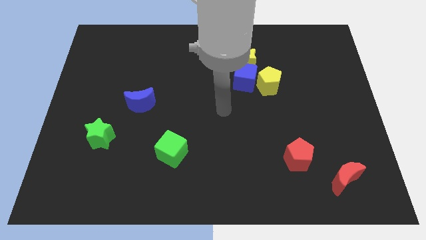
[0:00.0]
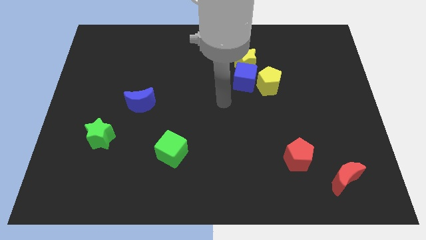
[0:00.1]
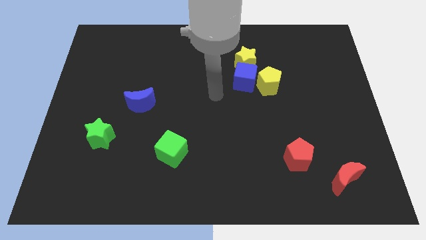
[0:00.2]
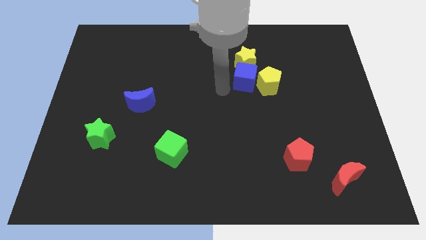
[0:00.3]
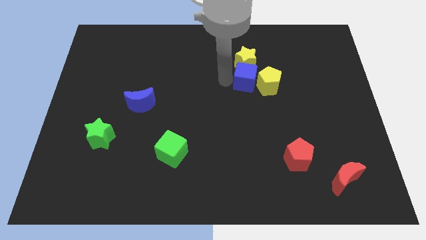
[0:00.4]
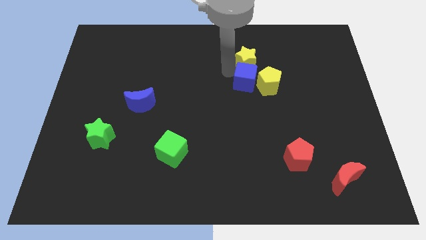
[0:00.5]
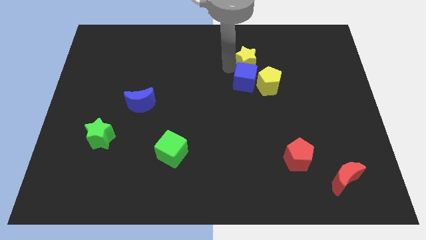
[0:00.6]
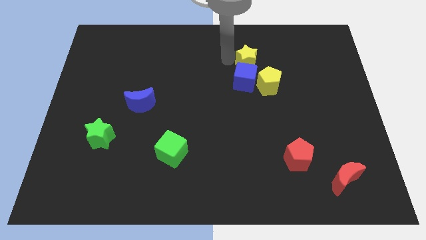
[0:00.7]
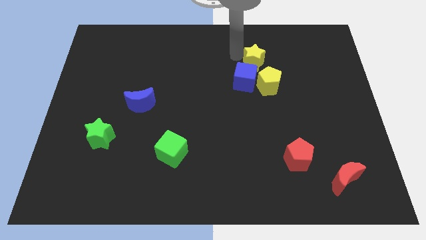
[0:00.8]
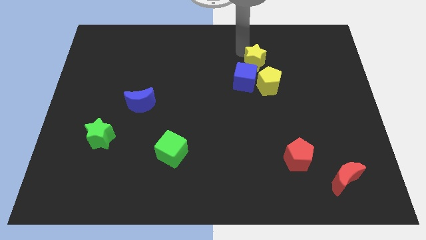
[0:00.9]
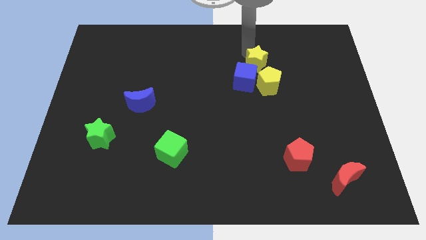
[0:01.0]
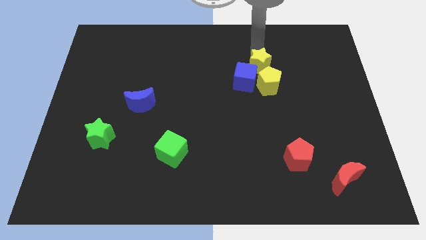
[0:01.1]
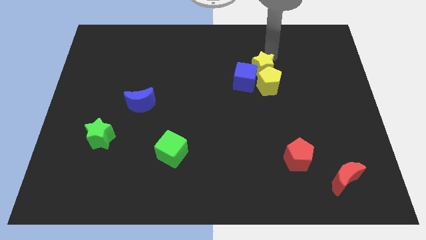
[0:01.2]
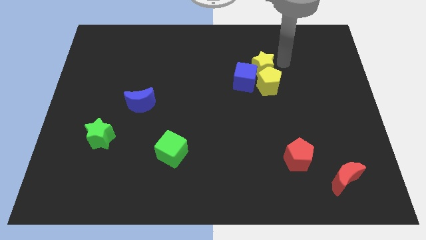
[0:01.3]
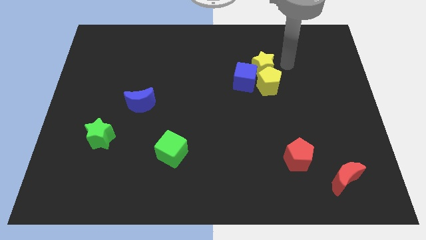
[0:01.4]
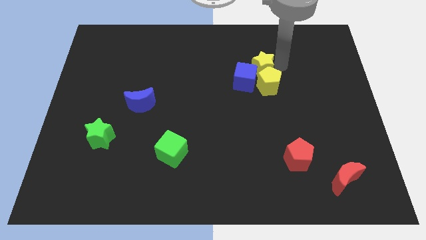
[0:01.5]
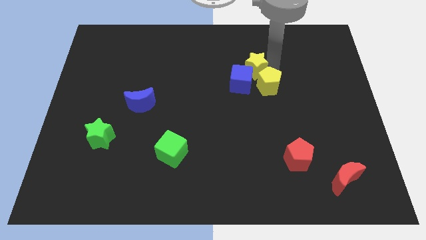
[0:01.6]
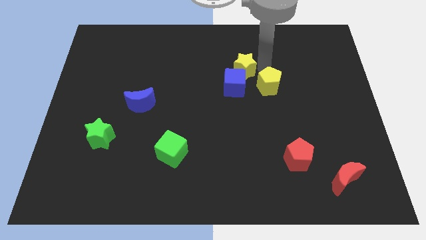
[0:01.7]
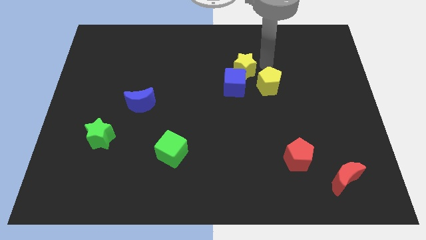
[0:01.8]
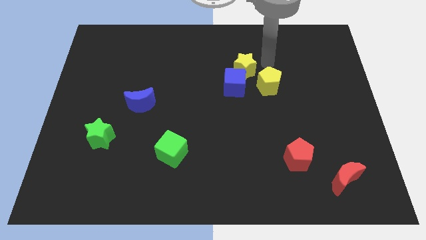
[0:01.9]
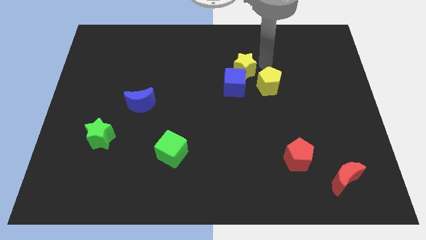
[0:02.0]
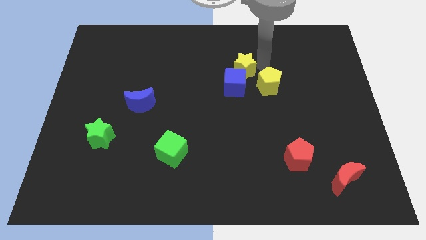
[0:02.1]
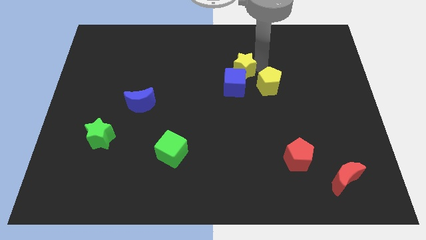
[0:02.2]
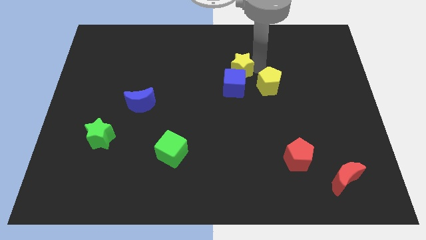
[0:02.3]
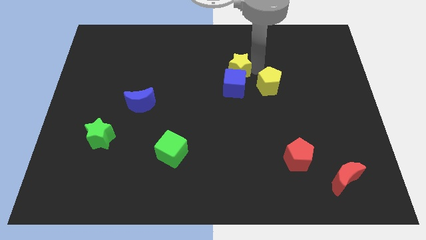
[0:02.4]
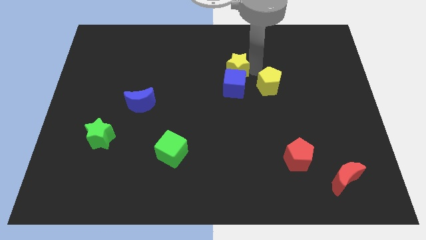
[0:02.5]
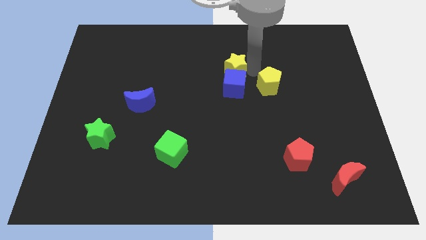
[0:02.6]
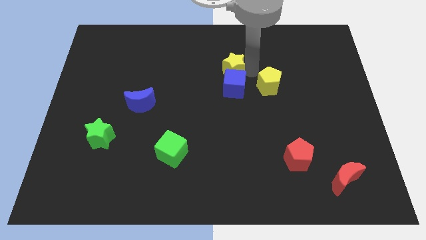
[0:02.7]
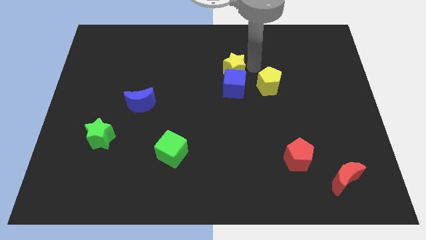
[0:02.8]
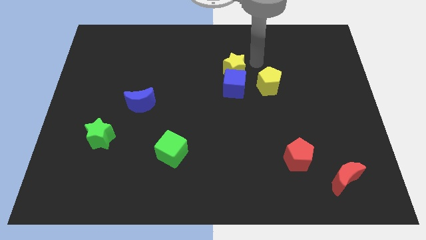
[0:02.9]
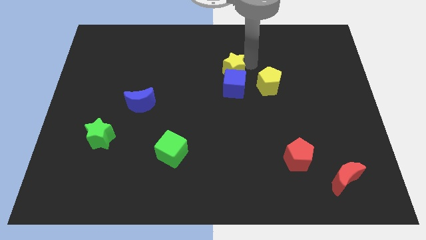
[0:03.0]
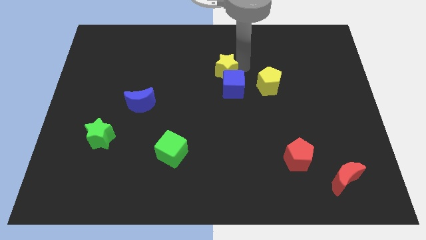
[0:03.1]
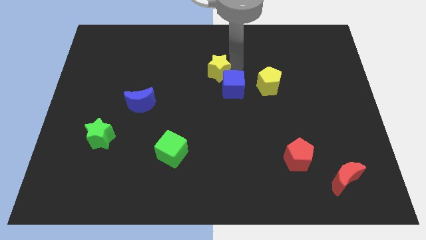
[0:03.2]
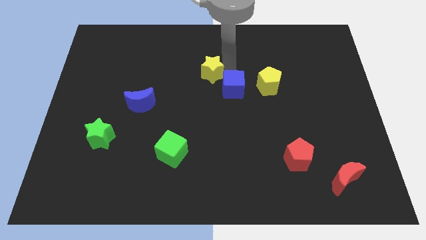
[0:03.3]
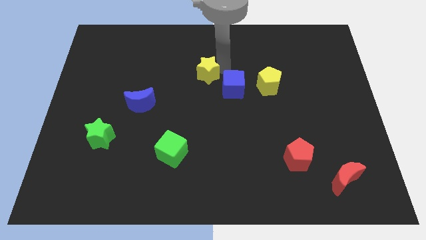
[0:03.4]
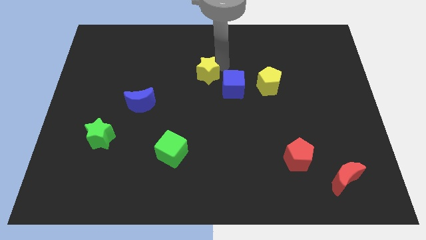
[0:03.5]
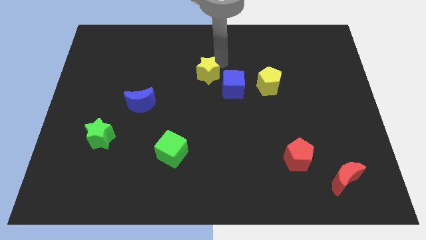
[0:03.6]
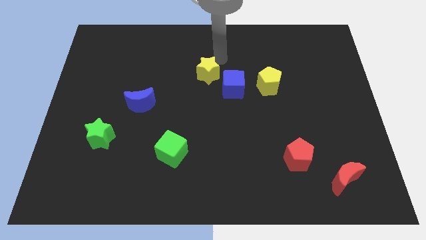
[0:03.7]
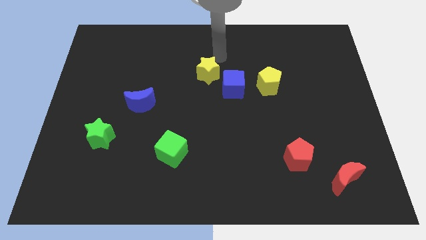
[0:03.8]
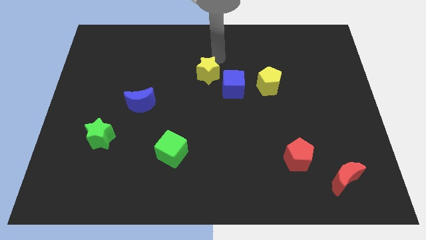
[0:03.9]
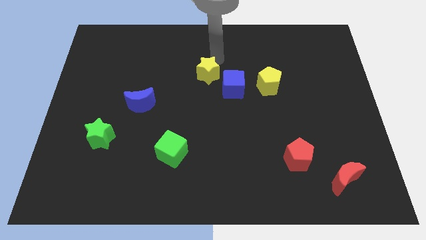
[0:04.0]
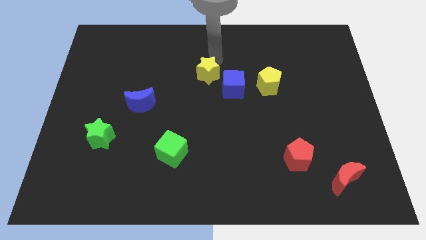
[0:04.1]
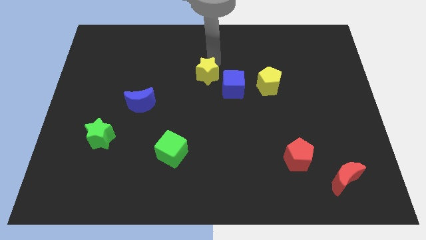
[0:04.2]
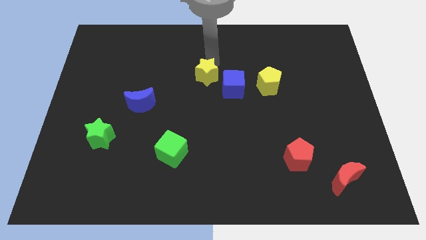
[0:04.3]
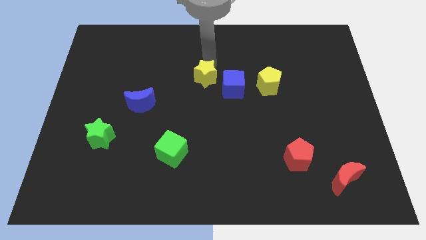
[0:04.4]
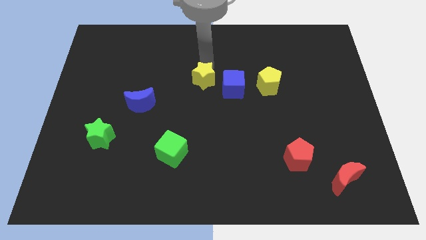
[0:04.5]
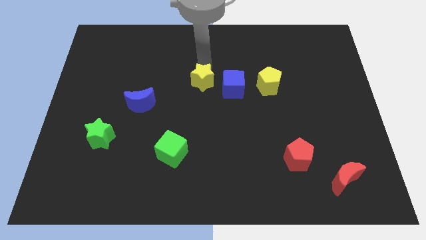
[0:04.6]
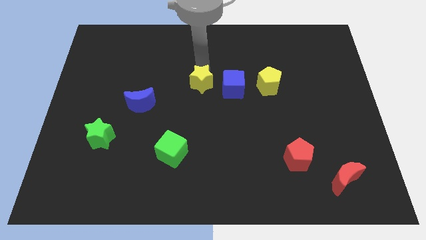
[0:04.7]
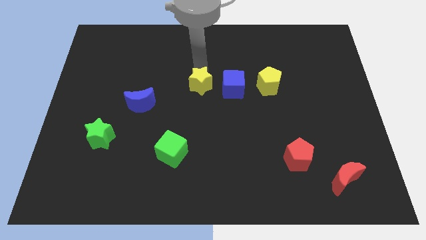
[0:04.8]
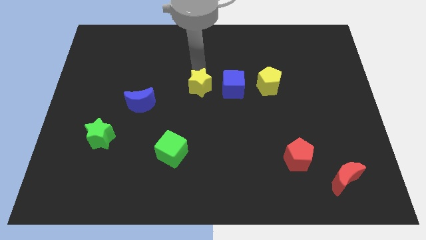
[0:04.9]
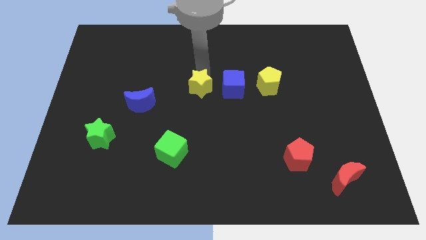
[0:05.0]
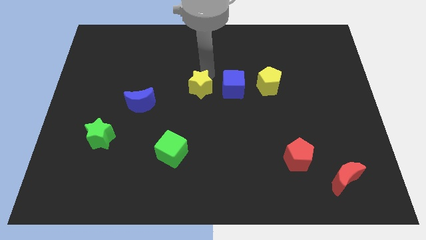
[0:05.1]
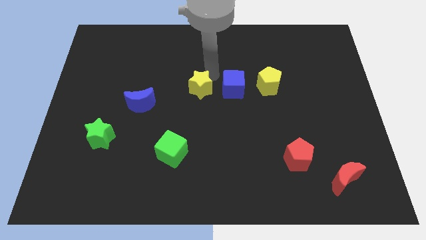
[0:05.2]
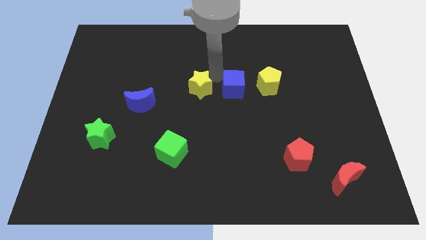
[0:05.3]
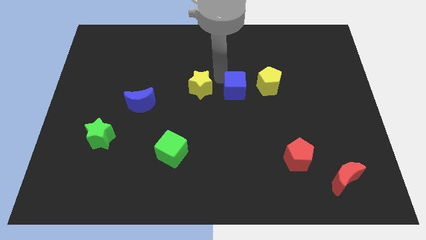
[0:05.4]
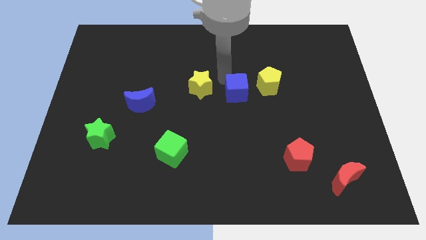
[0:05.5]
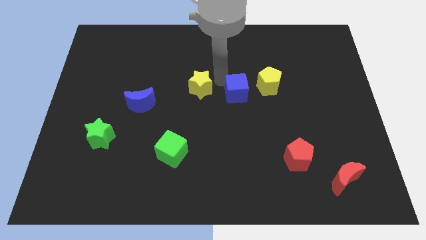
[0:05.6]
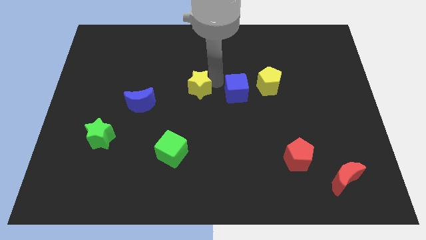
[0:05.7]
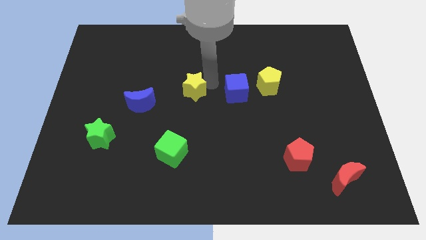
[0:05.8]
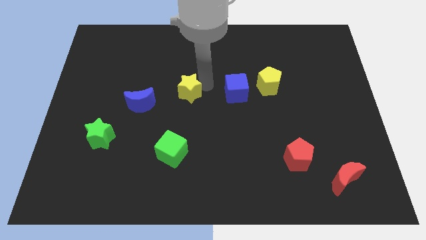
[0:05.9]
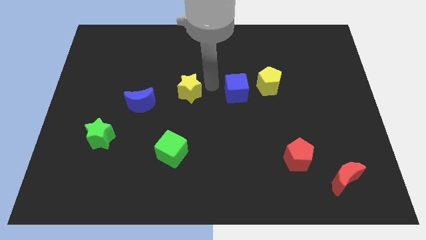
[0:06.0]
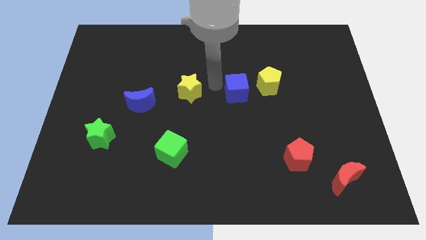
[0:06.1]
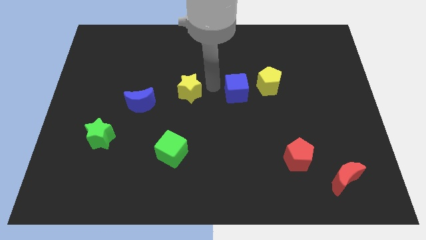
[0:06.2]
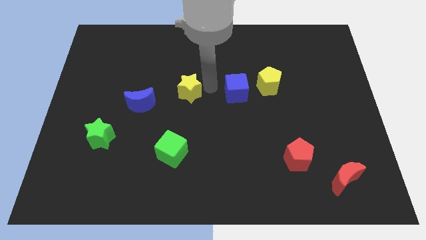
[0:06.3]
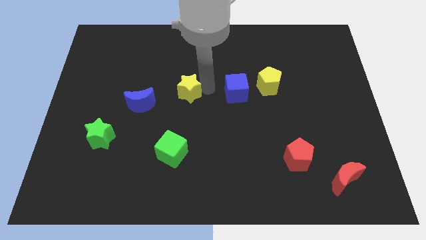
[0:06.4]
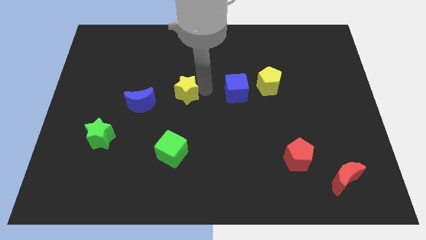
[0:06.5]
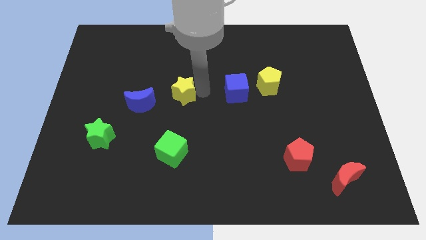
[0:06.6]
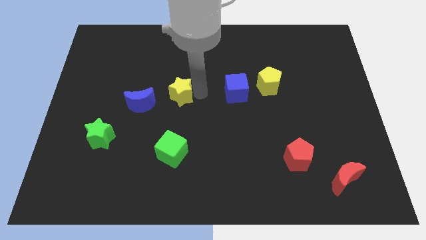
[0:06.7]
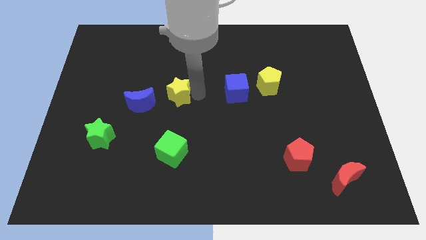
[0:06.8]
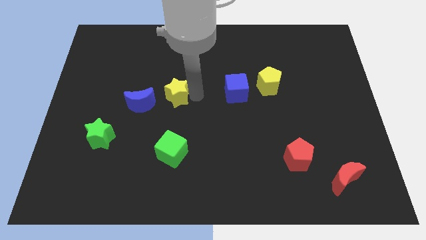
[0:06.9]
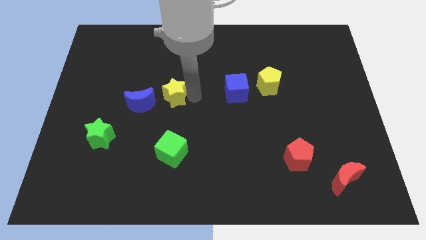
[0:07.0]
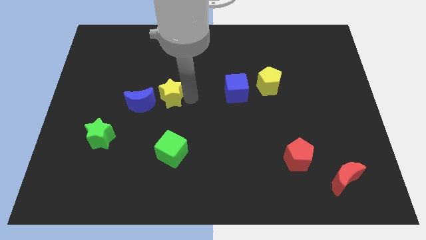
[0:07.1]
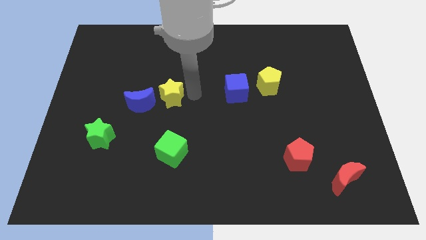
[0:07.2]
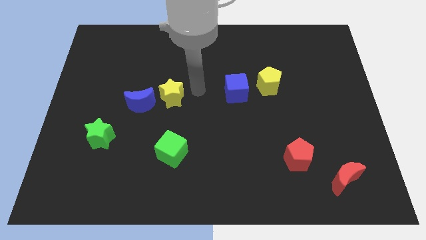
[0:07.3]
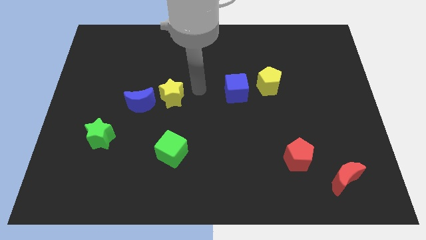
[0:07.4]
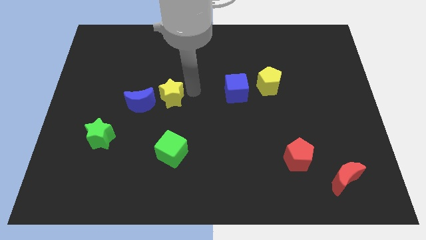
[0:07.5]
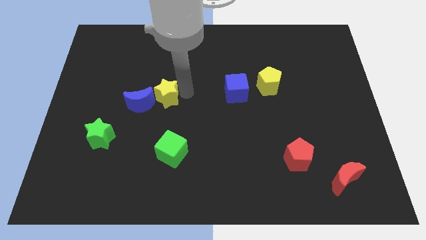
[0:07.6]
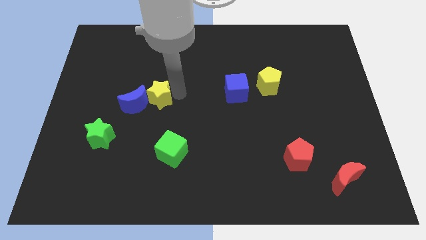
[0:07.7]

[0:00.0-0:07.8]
move the yellow star next to the blue moon
